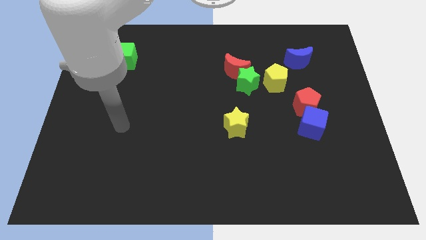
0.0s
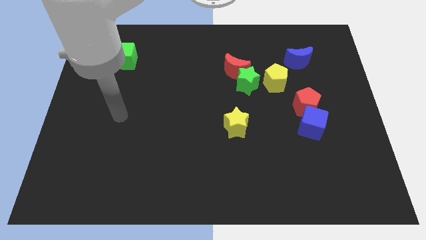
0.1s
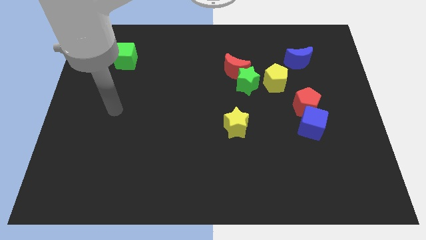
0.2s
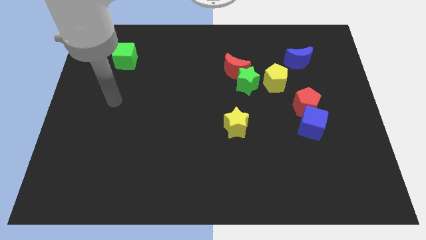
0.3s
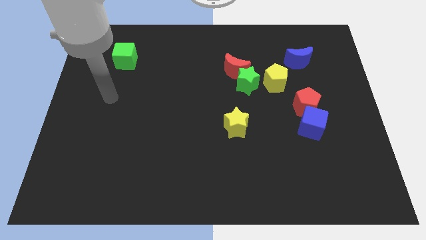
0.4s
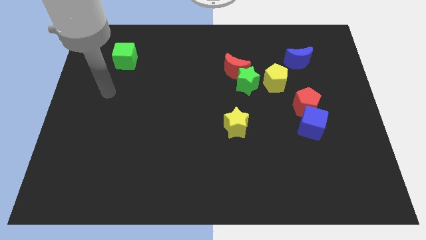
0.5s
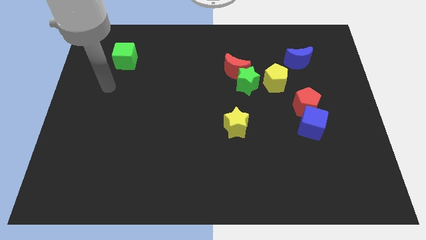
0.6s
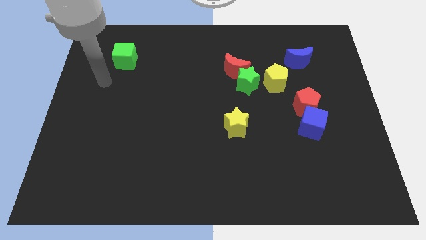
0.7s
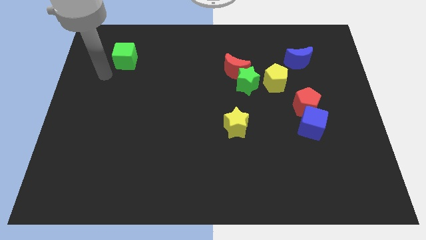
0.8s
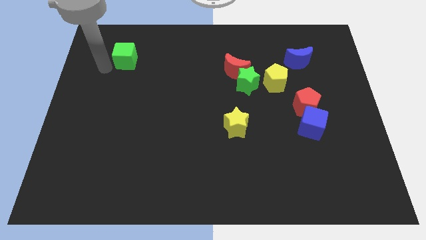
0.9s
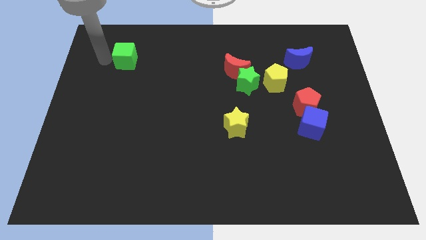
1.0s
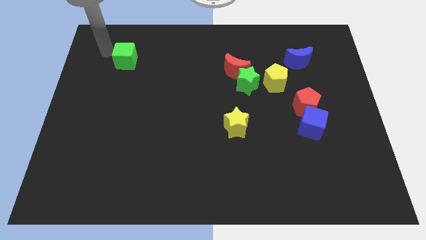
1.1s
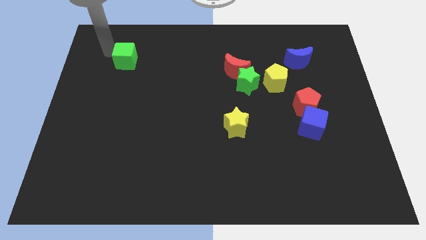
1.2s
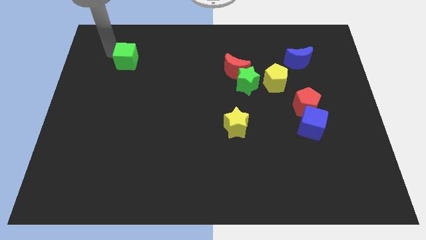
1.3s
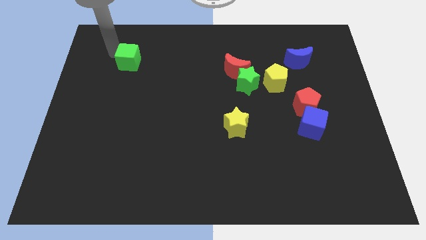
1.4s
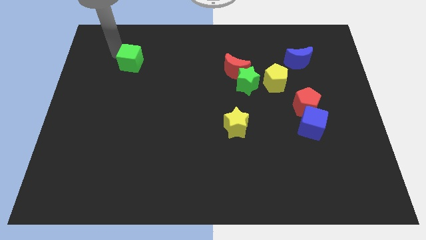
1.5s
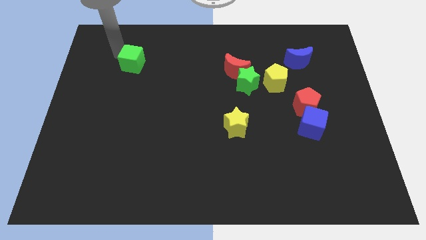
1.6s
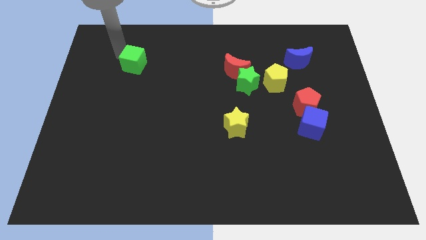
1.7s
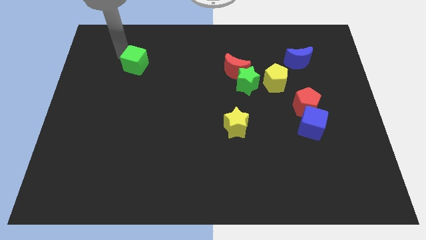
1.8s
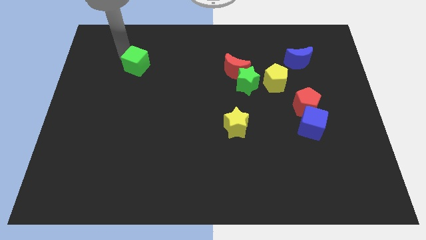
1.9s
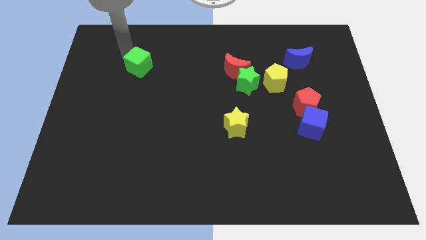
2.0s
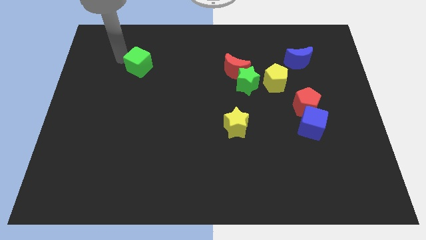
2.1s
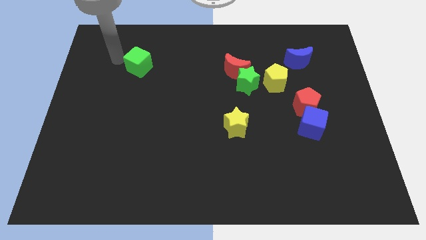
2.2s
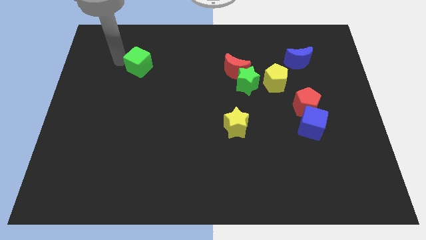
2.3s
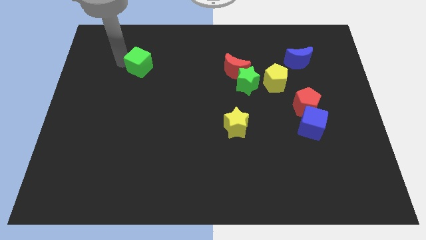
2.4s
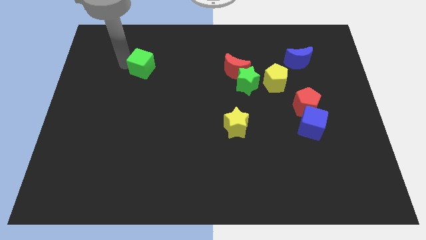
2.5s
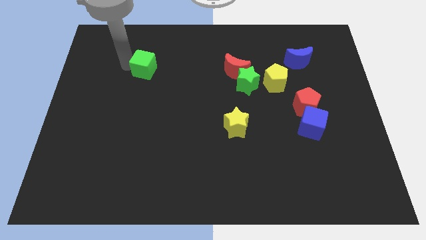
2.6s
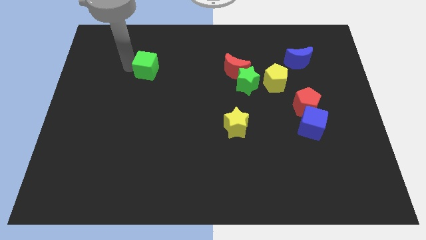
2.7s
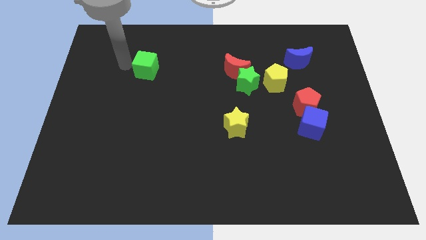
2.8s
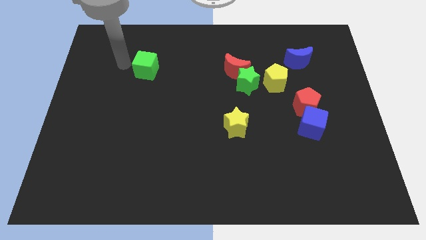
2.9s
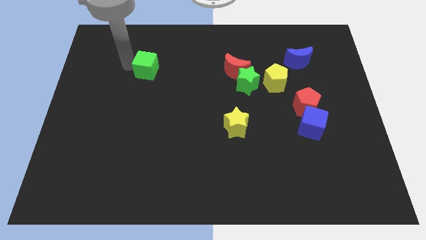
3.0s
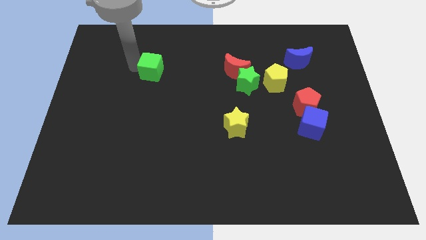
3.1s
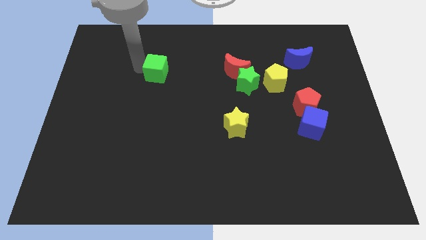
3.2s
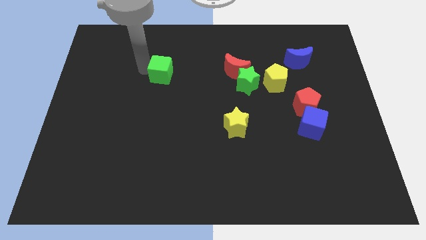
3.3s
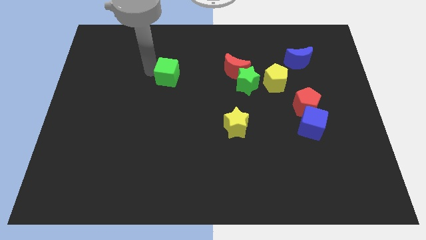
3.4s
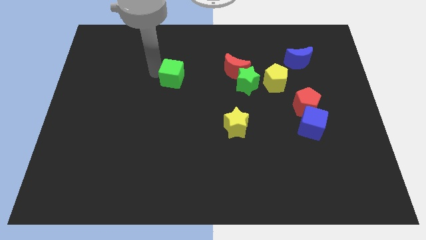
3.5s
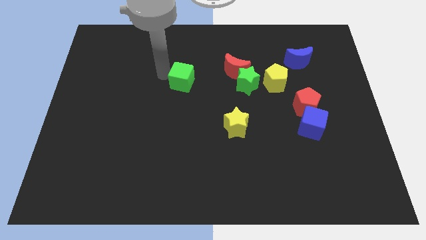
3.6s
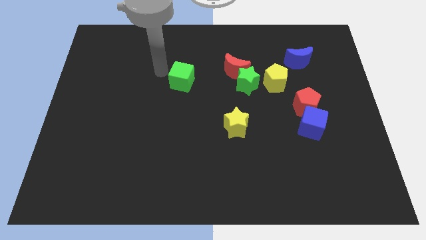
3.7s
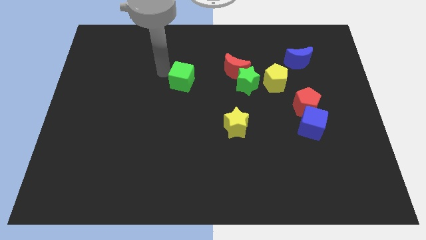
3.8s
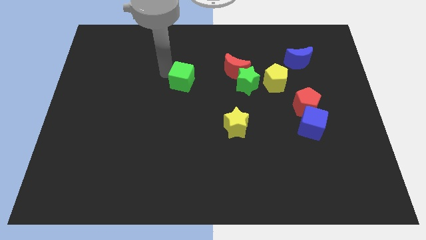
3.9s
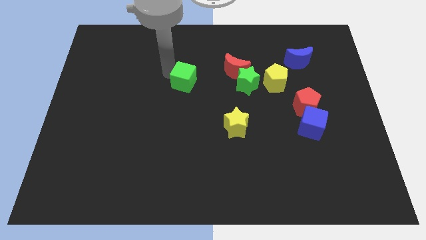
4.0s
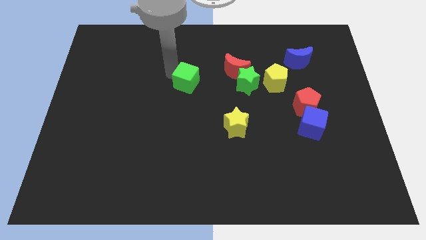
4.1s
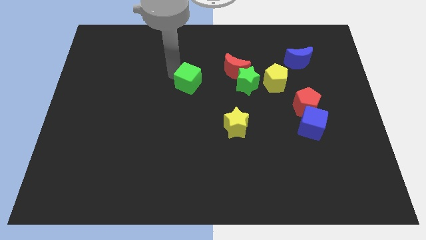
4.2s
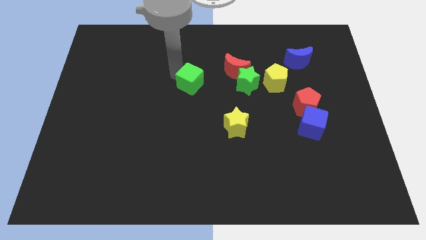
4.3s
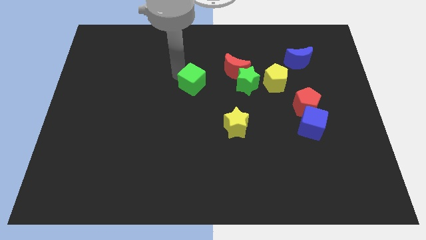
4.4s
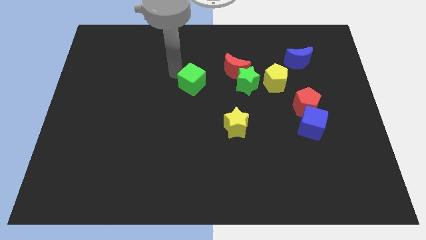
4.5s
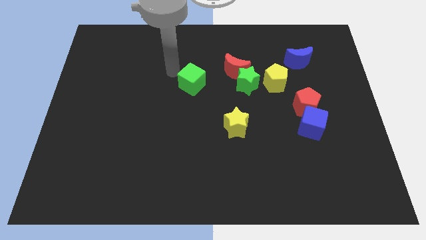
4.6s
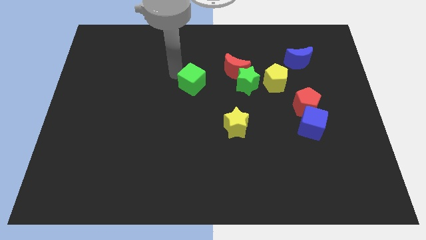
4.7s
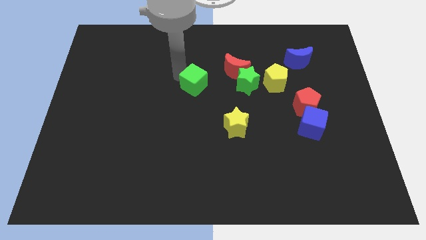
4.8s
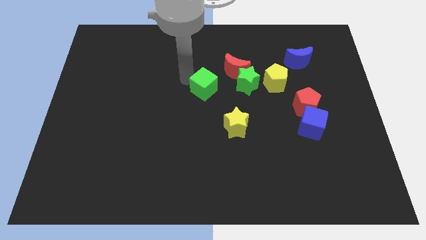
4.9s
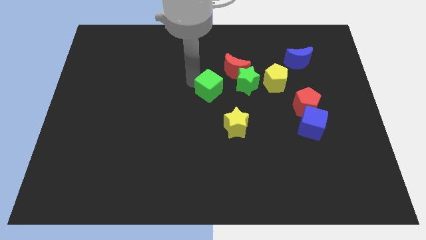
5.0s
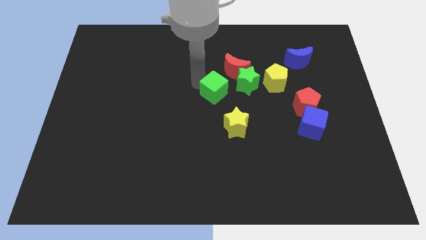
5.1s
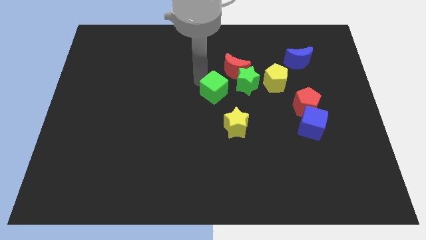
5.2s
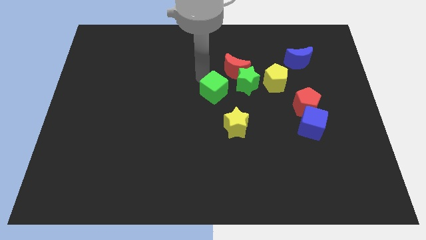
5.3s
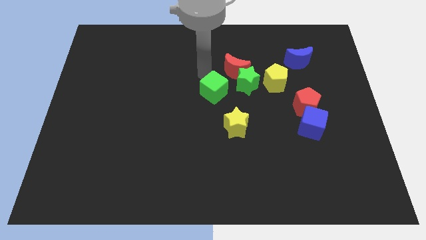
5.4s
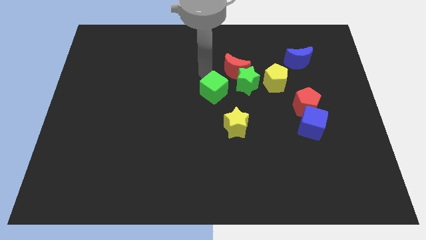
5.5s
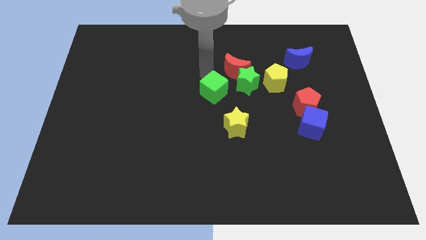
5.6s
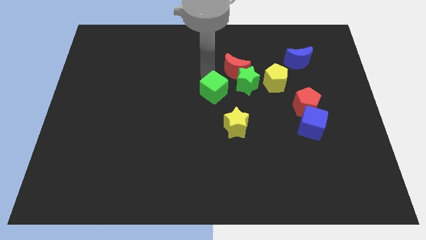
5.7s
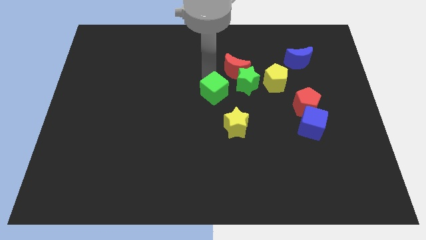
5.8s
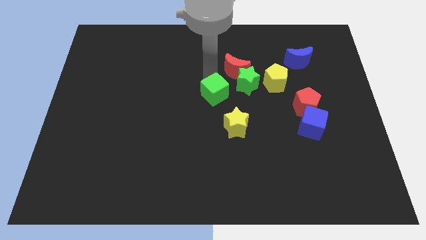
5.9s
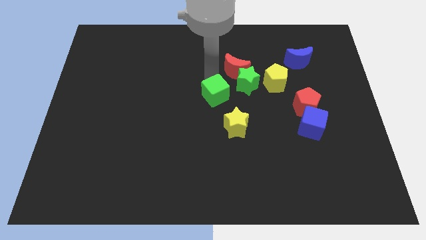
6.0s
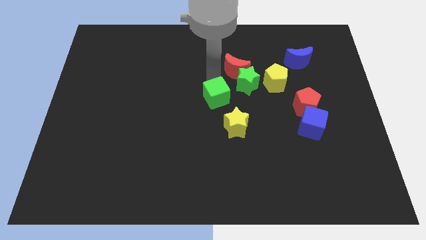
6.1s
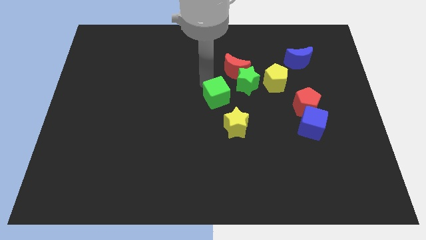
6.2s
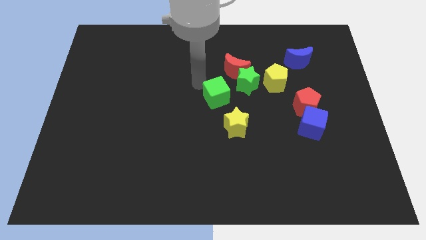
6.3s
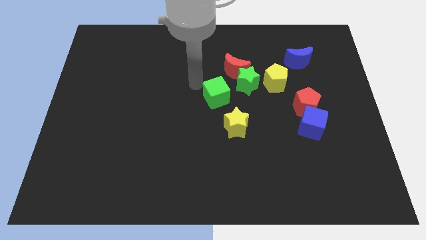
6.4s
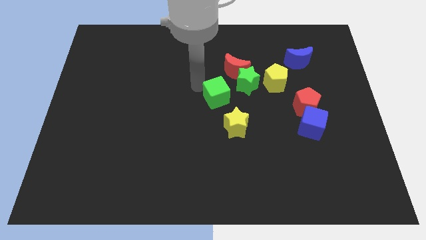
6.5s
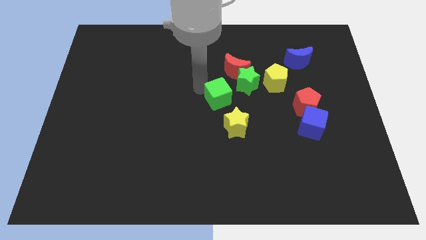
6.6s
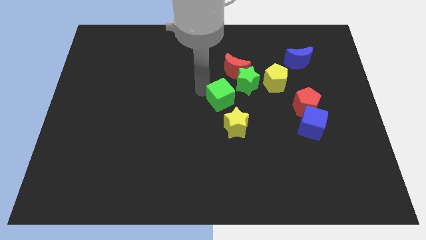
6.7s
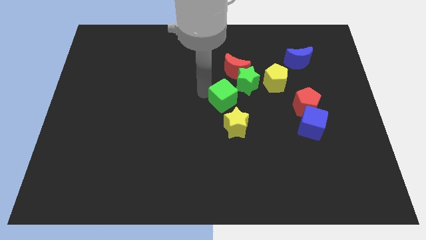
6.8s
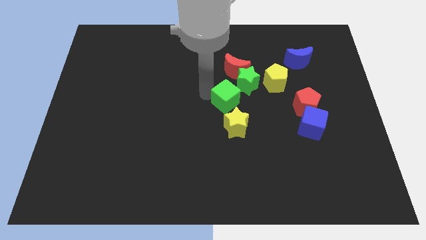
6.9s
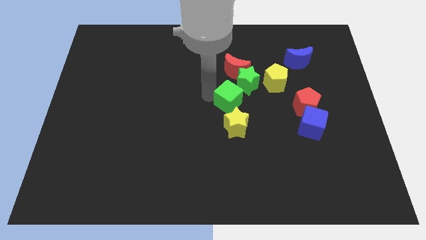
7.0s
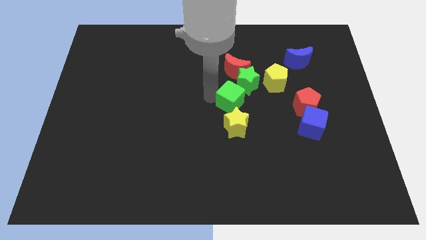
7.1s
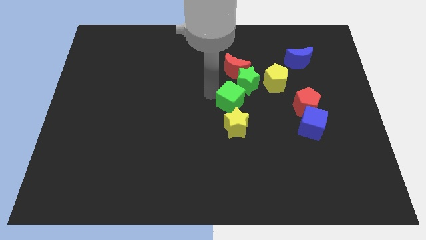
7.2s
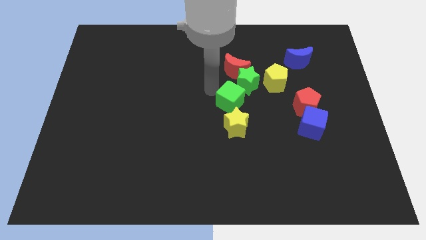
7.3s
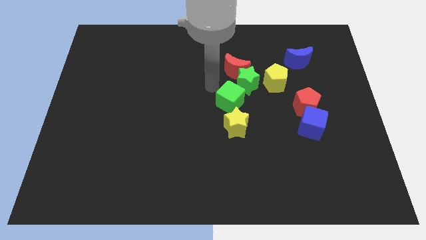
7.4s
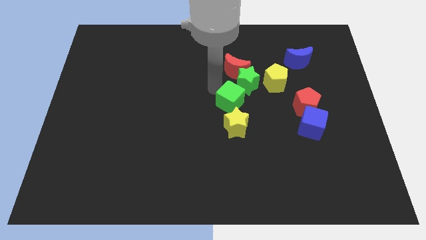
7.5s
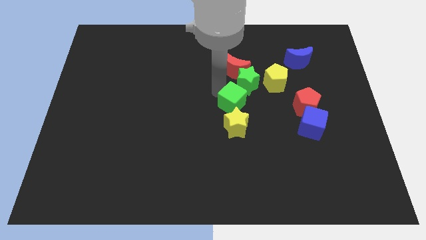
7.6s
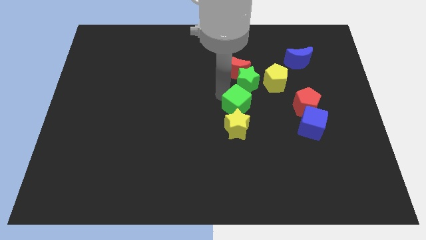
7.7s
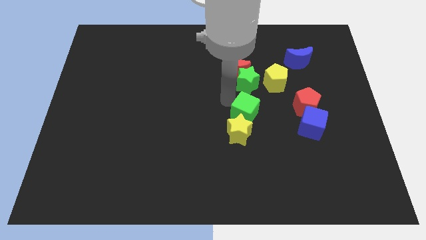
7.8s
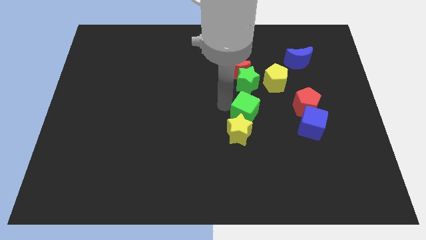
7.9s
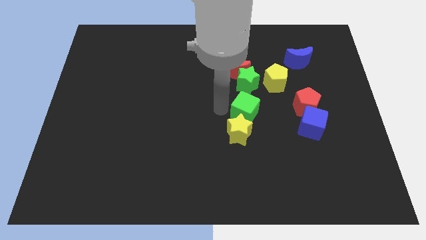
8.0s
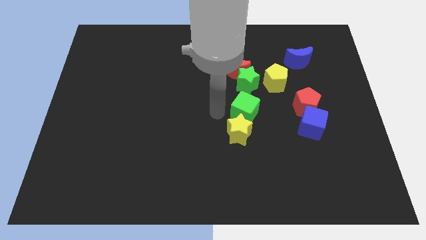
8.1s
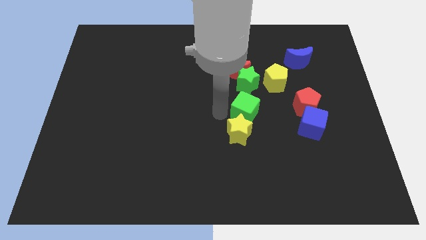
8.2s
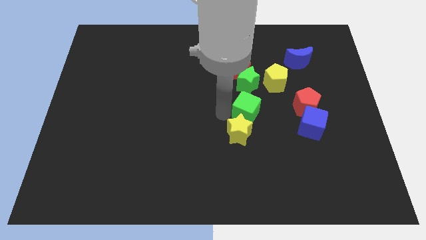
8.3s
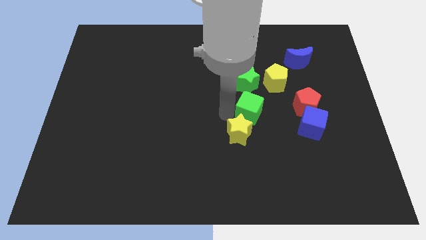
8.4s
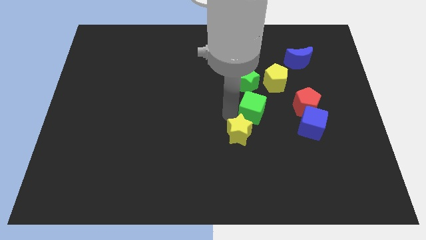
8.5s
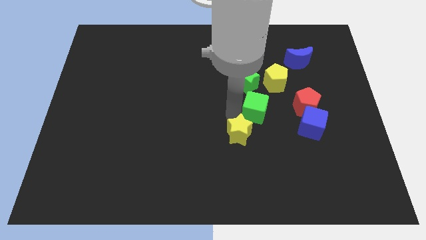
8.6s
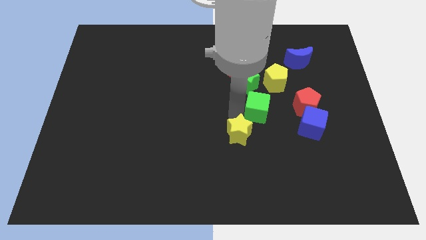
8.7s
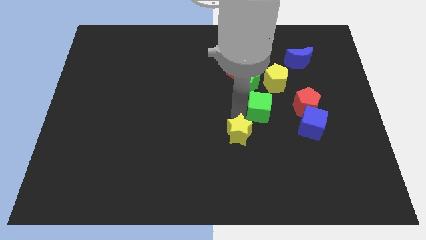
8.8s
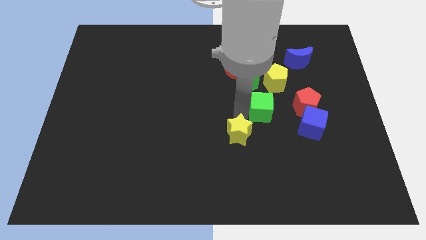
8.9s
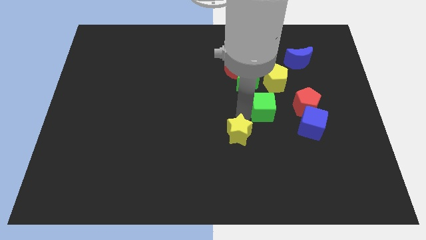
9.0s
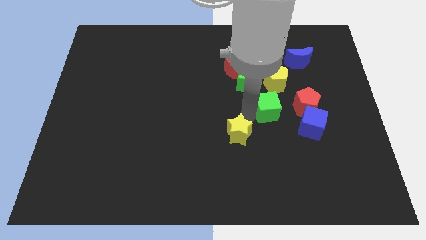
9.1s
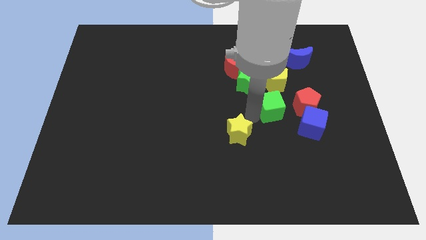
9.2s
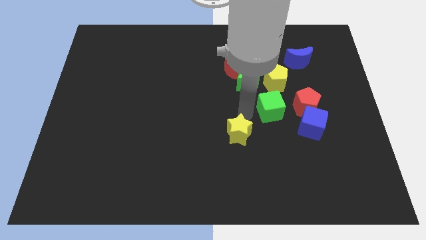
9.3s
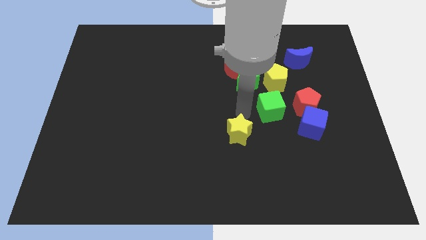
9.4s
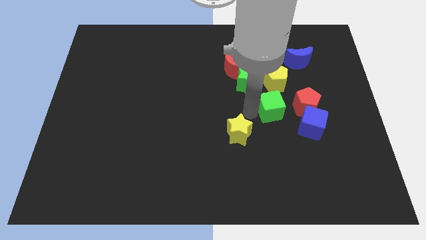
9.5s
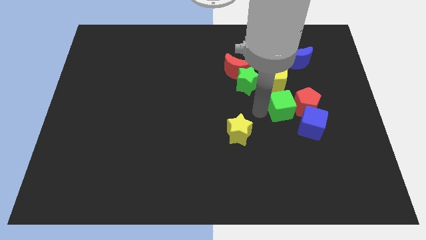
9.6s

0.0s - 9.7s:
push the green cube next to the red pentagon
